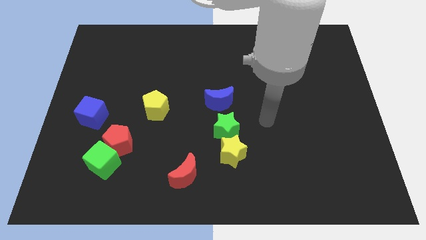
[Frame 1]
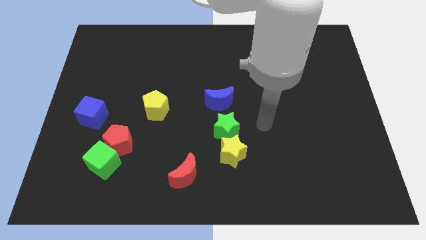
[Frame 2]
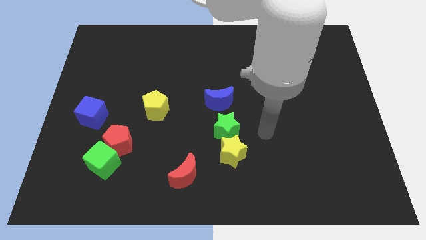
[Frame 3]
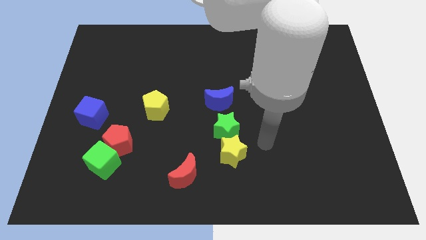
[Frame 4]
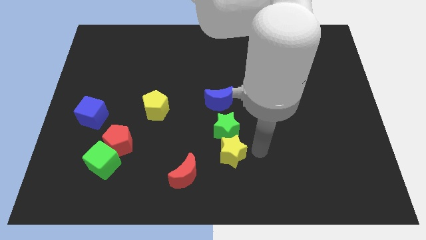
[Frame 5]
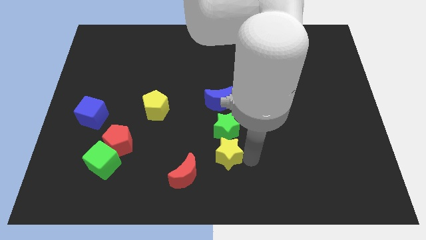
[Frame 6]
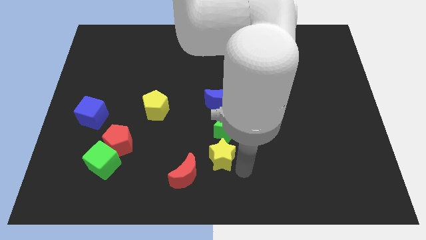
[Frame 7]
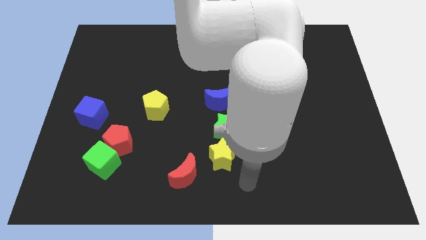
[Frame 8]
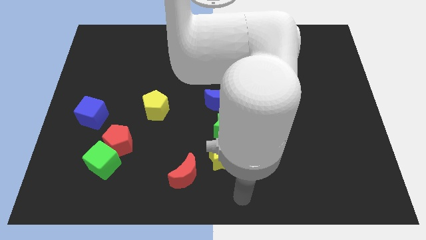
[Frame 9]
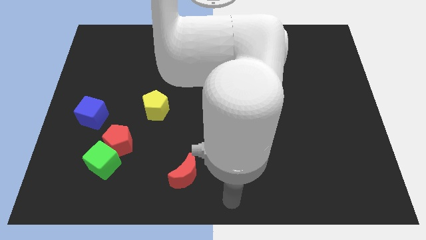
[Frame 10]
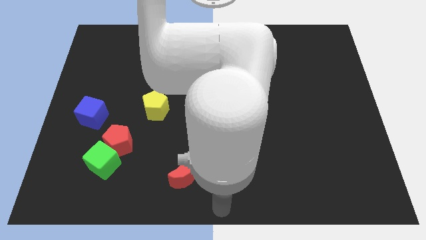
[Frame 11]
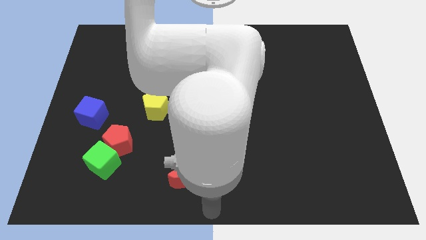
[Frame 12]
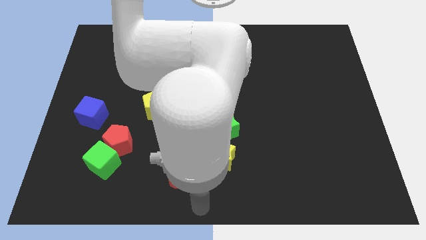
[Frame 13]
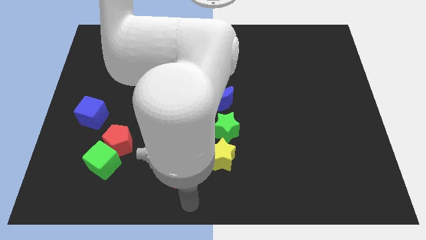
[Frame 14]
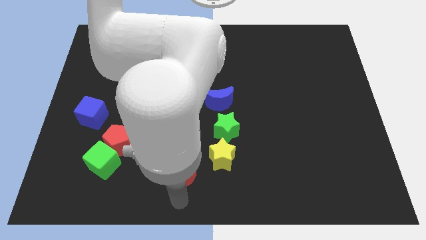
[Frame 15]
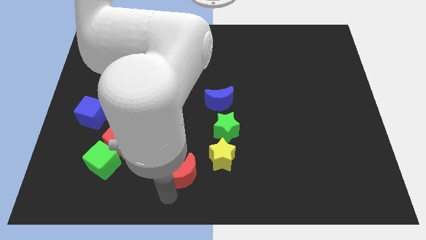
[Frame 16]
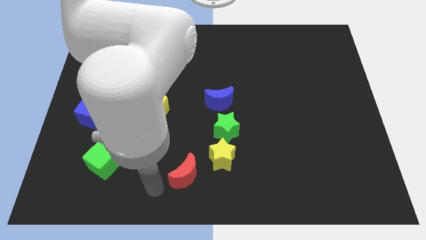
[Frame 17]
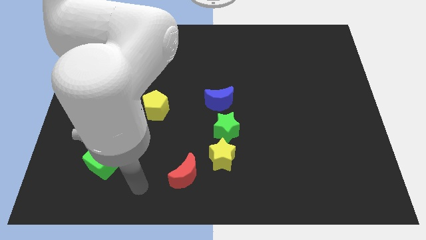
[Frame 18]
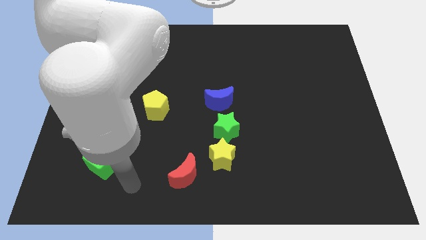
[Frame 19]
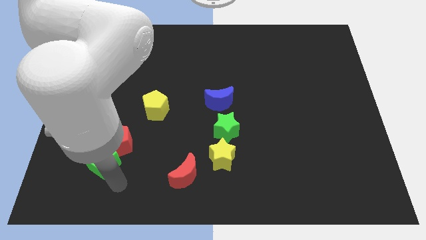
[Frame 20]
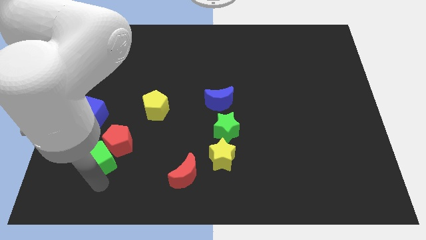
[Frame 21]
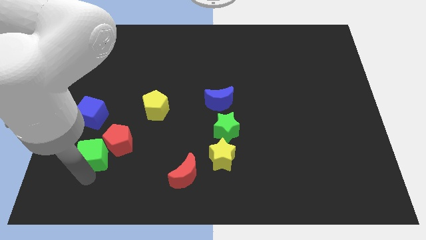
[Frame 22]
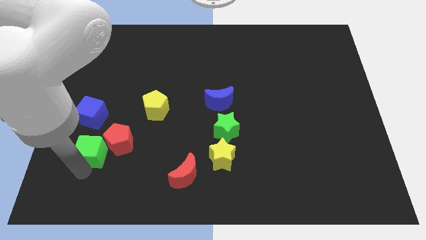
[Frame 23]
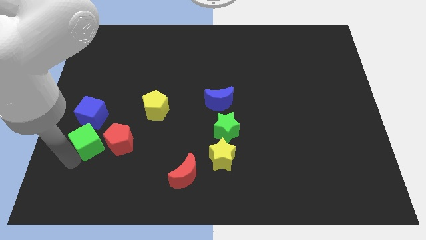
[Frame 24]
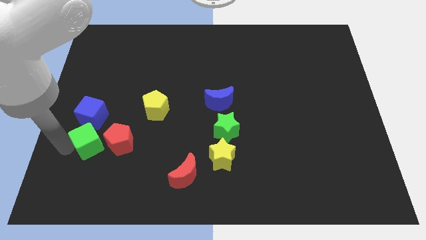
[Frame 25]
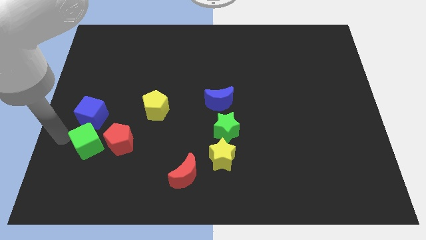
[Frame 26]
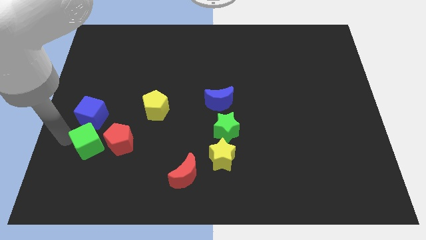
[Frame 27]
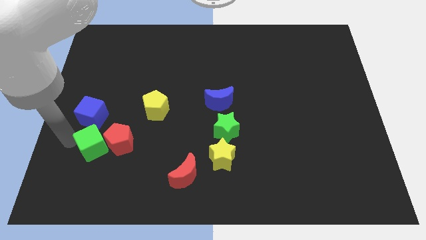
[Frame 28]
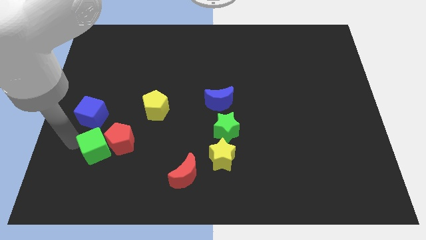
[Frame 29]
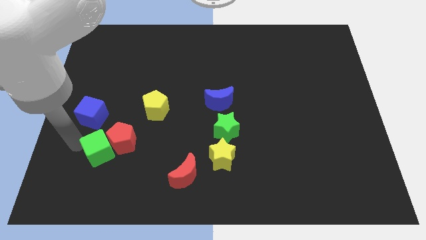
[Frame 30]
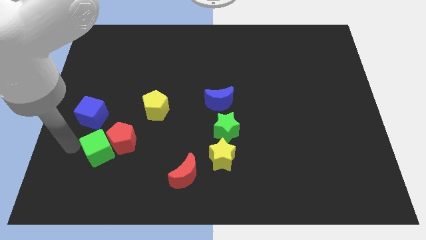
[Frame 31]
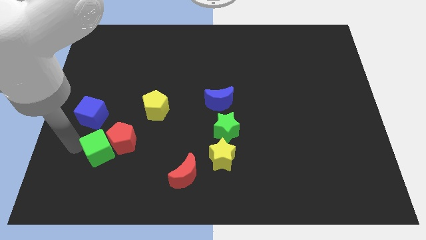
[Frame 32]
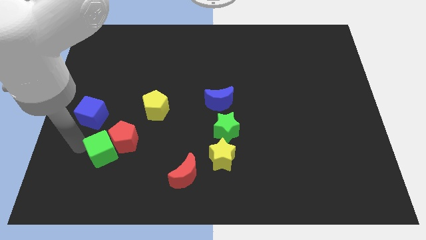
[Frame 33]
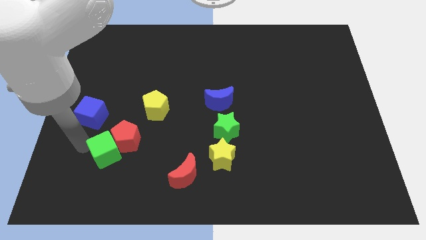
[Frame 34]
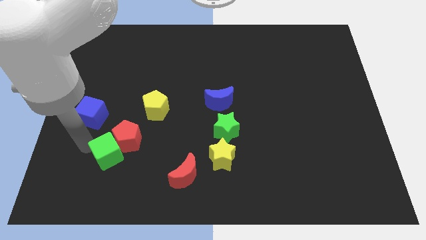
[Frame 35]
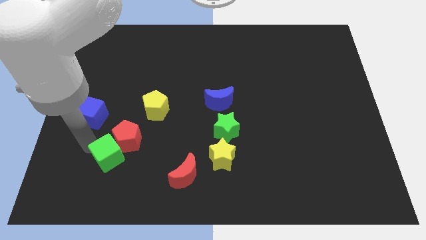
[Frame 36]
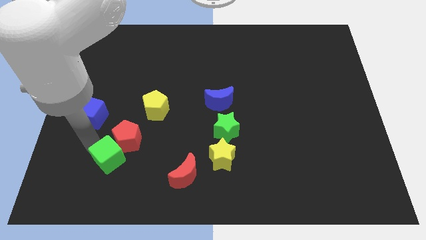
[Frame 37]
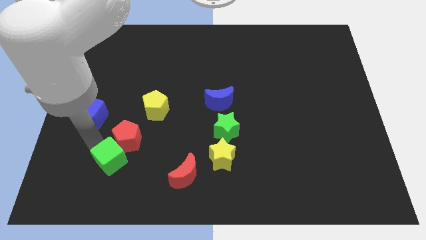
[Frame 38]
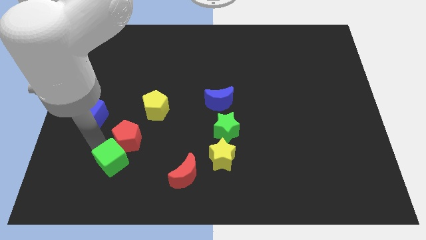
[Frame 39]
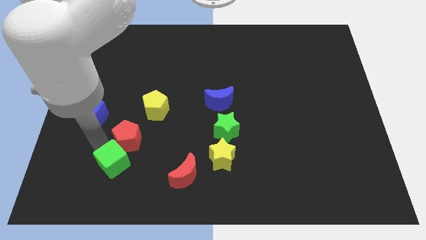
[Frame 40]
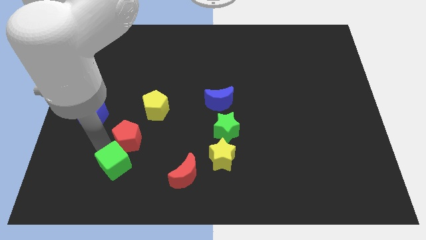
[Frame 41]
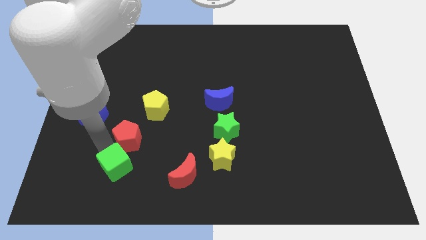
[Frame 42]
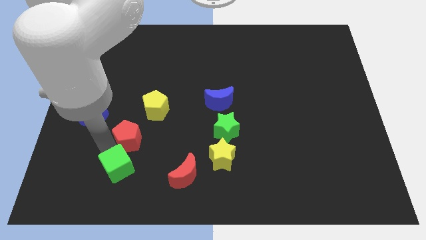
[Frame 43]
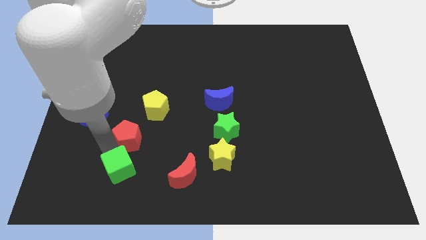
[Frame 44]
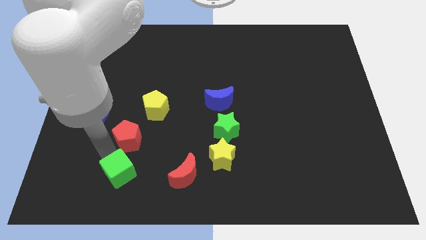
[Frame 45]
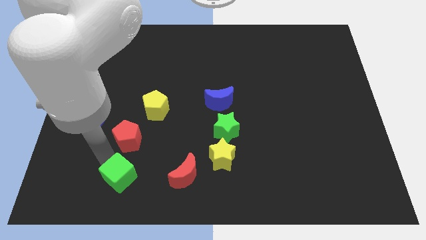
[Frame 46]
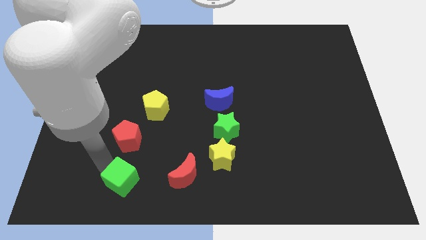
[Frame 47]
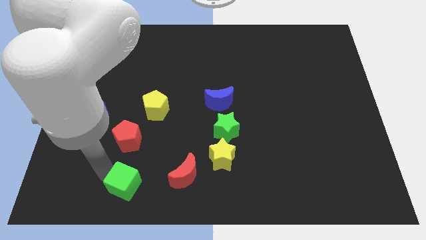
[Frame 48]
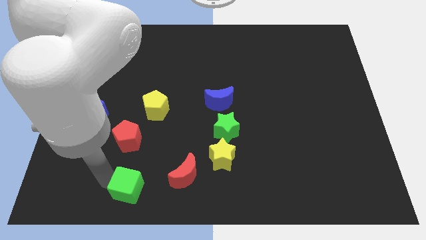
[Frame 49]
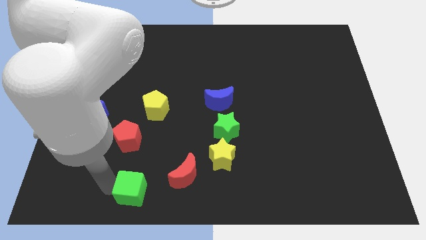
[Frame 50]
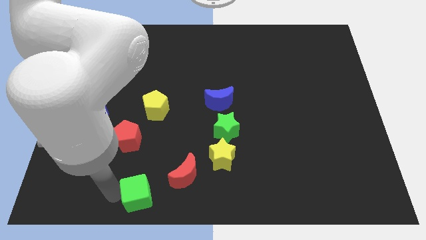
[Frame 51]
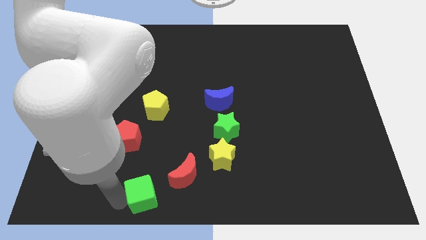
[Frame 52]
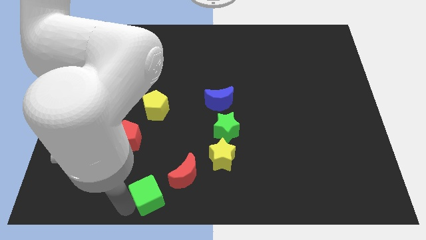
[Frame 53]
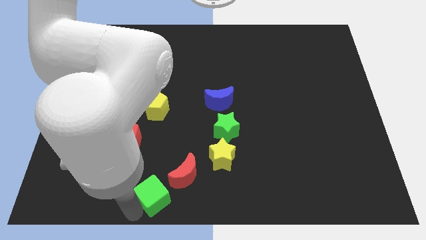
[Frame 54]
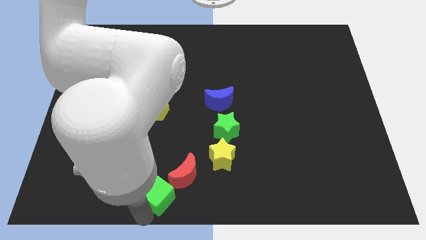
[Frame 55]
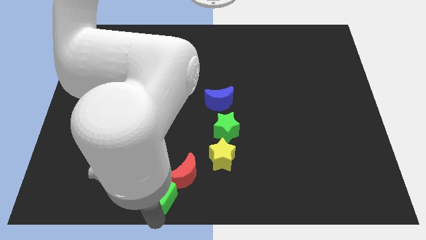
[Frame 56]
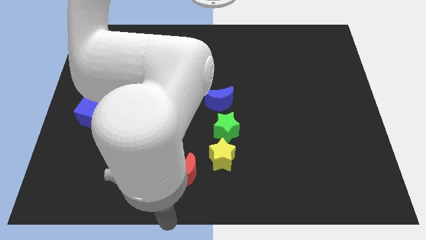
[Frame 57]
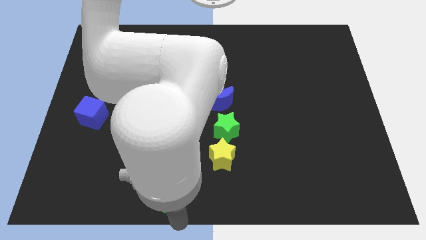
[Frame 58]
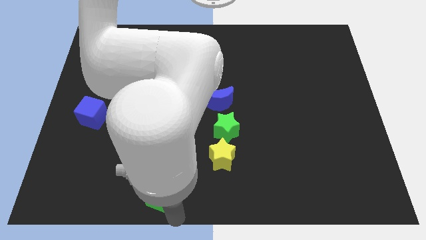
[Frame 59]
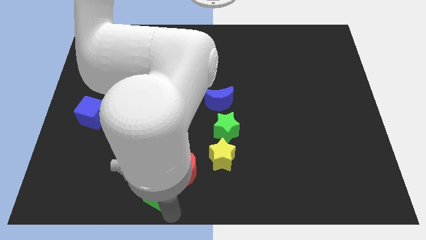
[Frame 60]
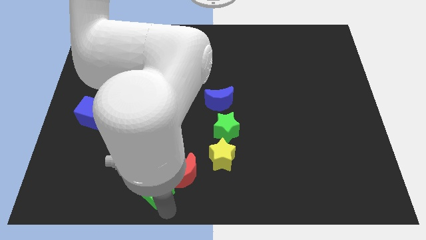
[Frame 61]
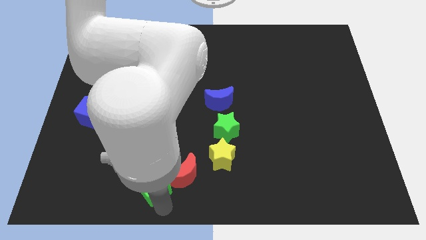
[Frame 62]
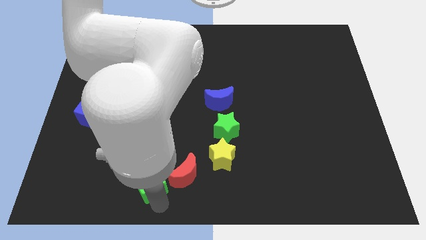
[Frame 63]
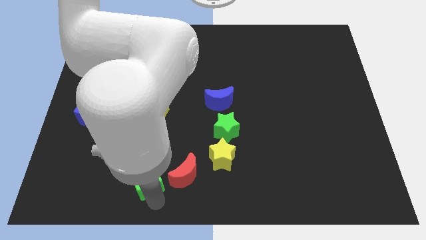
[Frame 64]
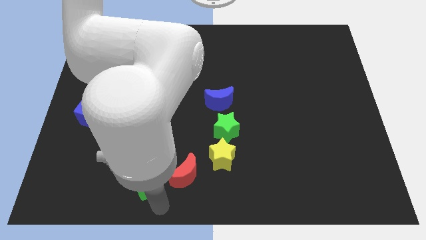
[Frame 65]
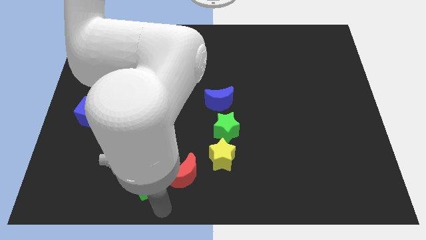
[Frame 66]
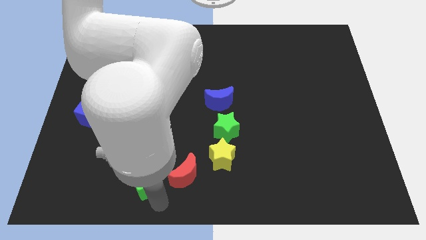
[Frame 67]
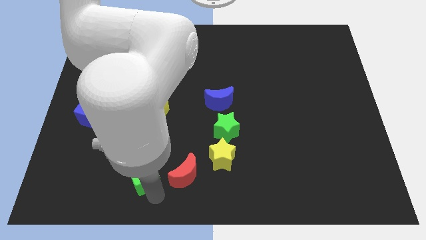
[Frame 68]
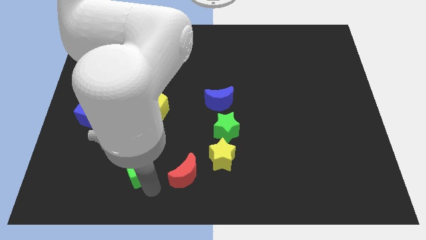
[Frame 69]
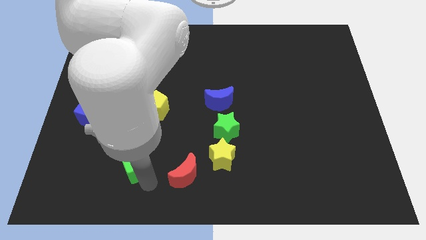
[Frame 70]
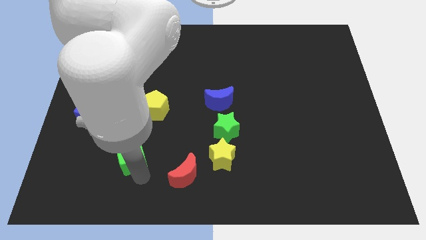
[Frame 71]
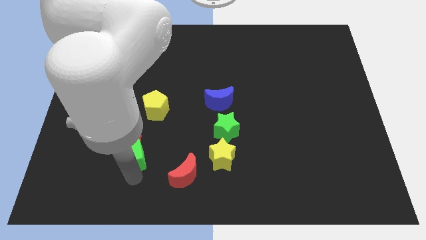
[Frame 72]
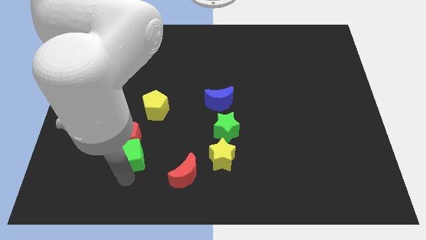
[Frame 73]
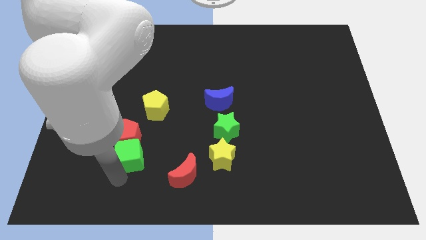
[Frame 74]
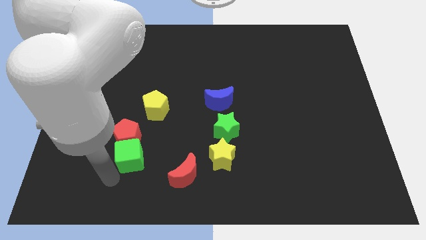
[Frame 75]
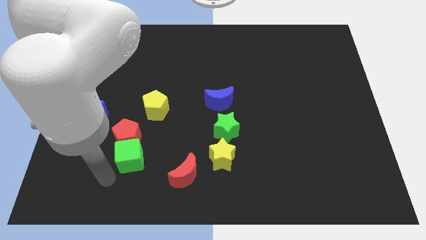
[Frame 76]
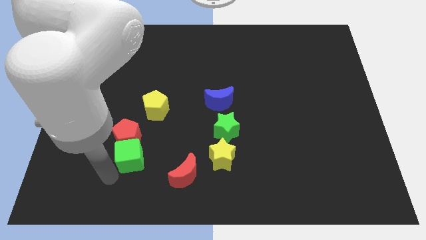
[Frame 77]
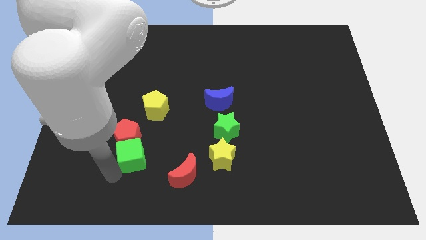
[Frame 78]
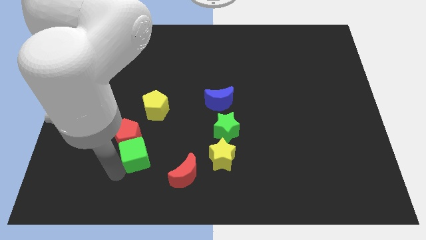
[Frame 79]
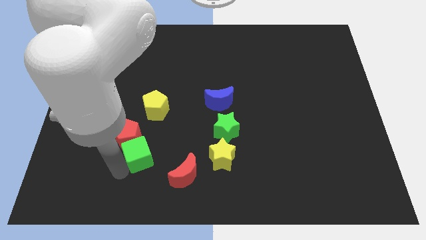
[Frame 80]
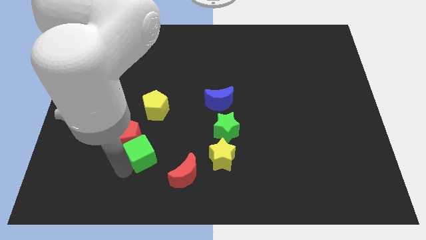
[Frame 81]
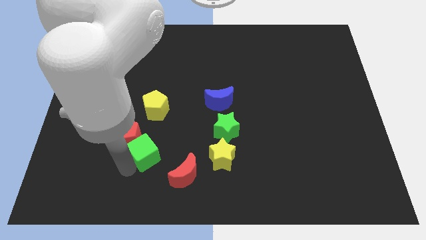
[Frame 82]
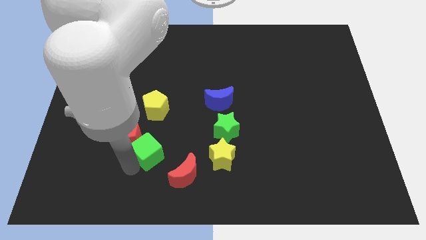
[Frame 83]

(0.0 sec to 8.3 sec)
slide the green cube slightly diagonally up and right

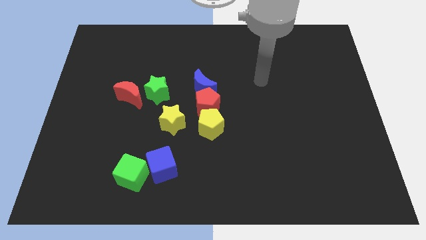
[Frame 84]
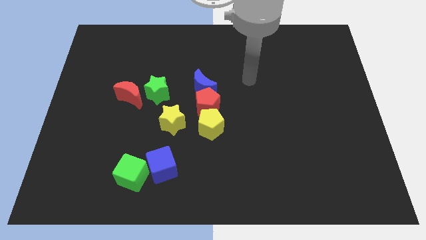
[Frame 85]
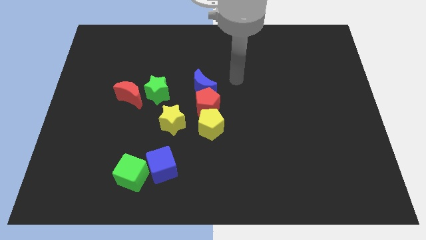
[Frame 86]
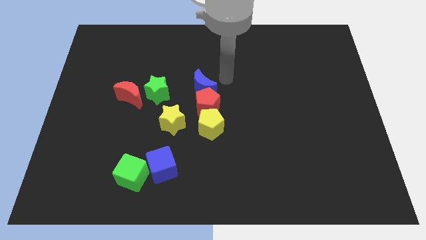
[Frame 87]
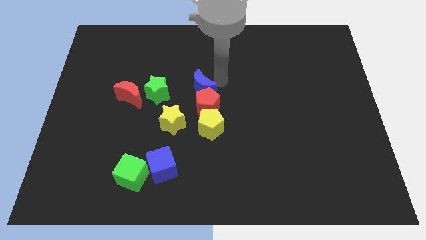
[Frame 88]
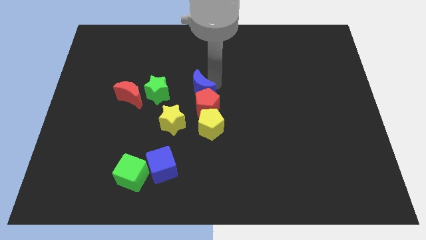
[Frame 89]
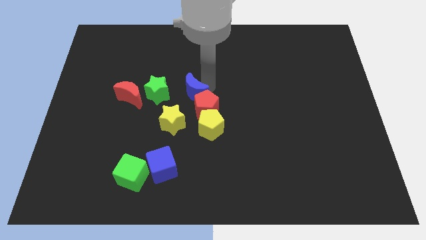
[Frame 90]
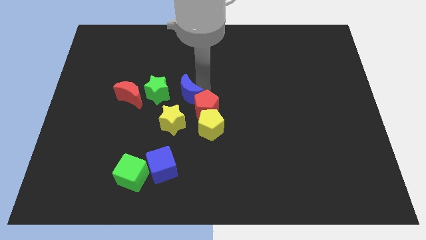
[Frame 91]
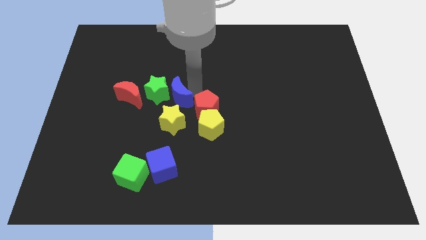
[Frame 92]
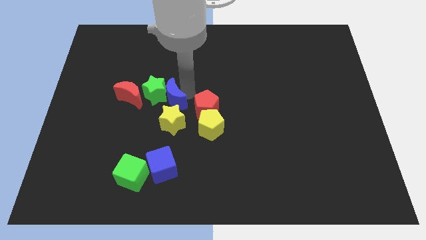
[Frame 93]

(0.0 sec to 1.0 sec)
slide the blue moon diagonally downwards and left somewhat
